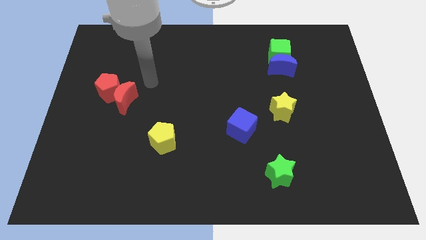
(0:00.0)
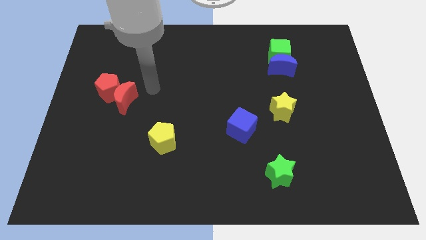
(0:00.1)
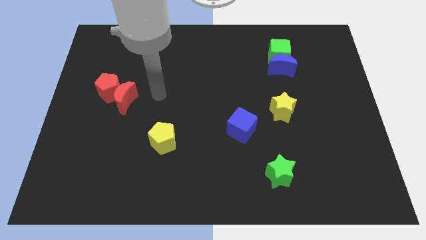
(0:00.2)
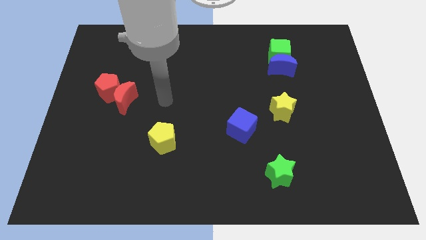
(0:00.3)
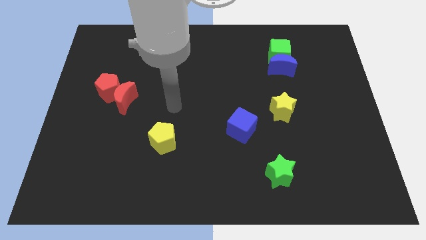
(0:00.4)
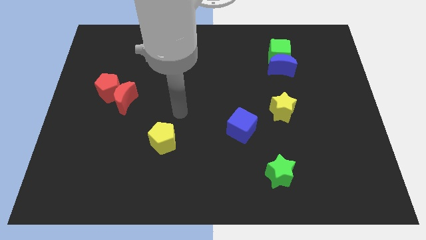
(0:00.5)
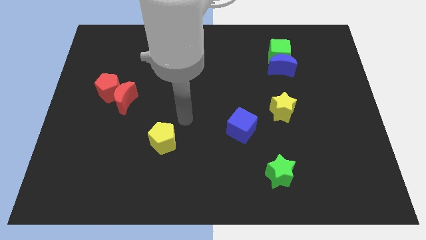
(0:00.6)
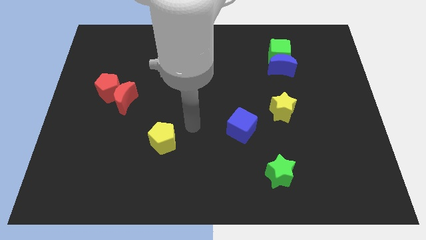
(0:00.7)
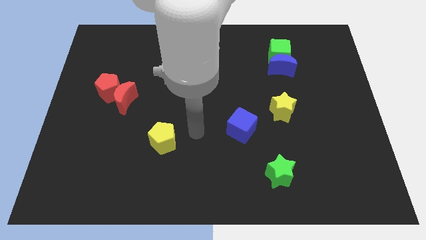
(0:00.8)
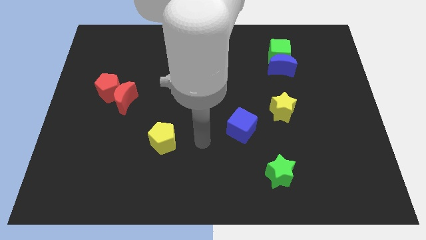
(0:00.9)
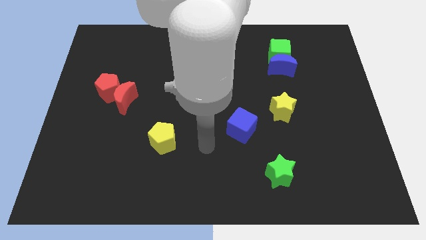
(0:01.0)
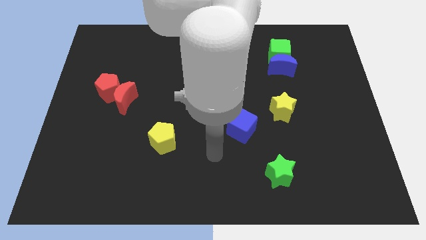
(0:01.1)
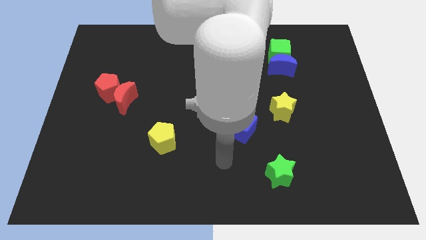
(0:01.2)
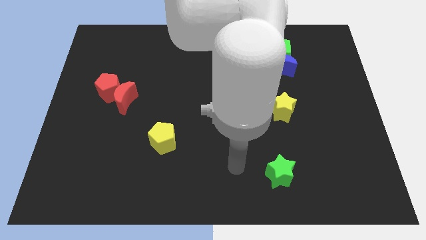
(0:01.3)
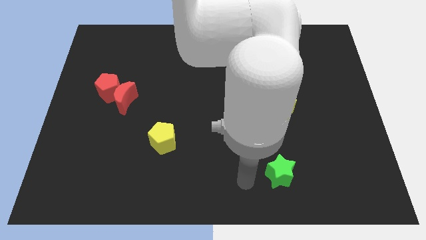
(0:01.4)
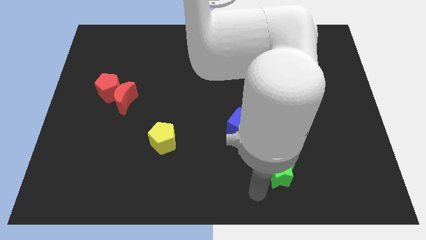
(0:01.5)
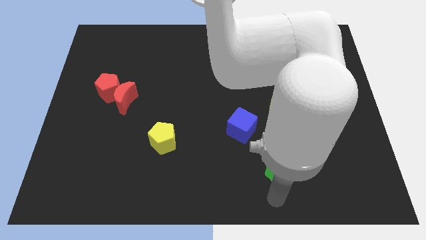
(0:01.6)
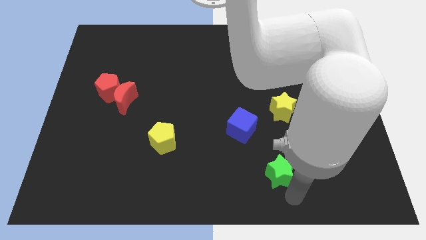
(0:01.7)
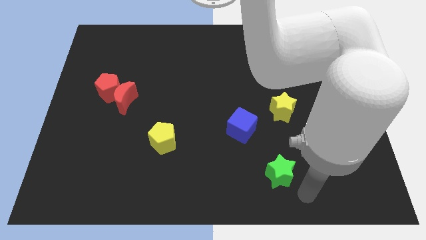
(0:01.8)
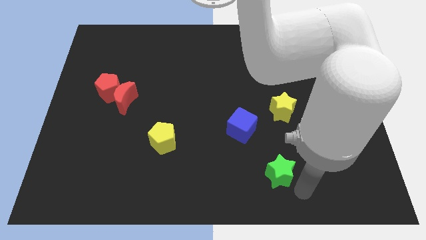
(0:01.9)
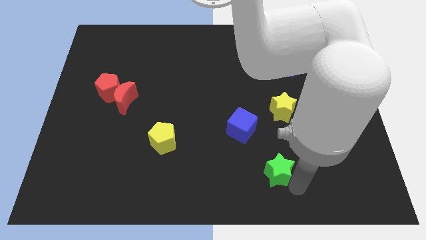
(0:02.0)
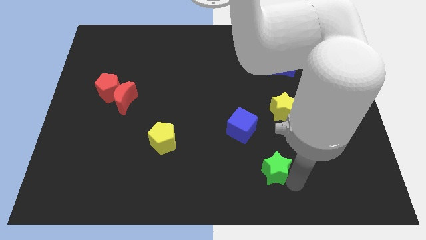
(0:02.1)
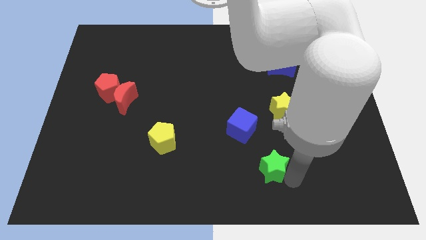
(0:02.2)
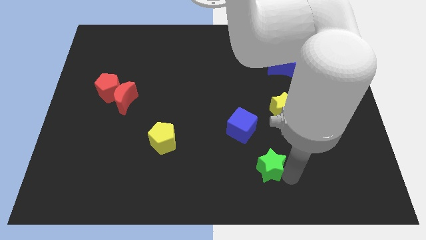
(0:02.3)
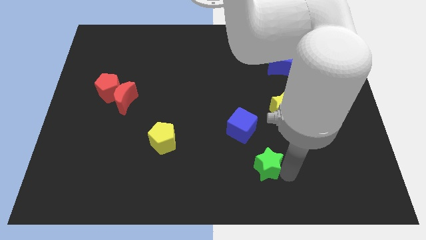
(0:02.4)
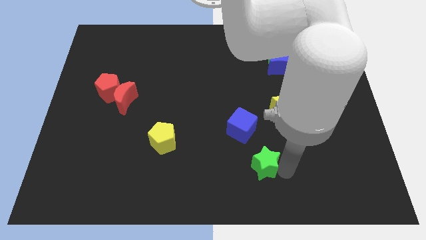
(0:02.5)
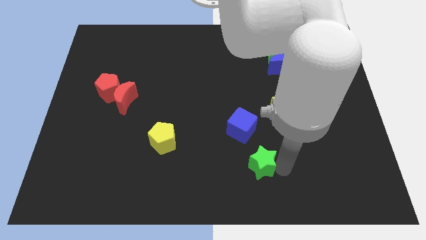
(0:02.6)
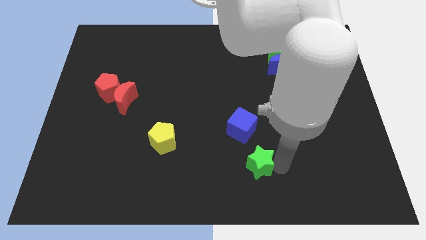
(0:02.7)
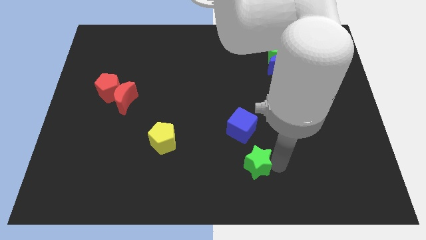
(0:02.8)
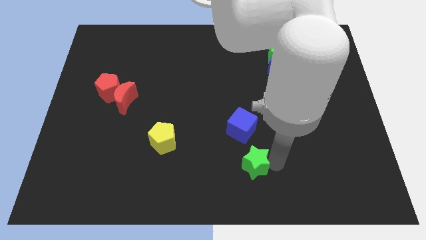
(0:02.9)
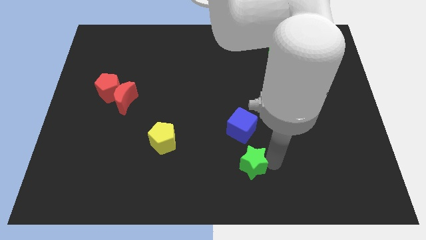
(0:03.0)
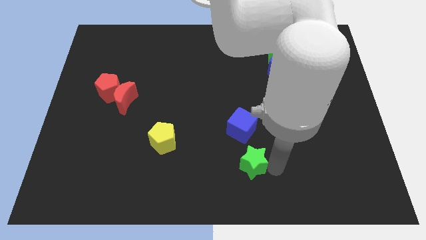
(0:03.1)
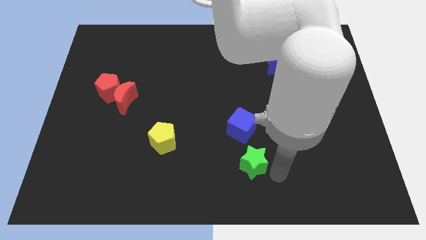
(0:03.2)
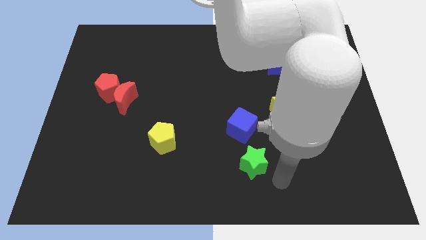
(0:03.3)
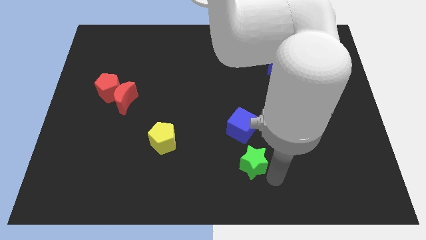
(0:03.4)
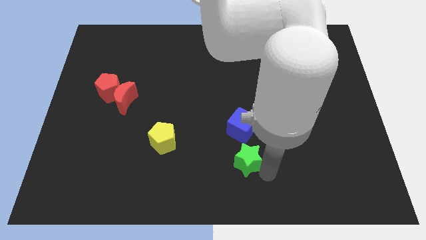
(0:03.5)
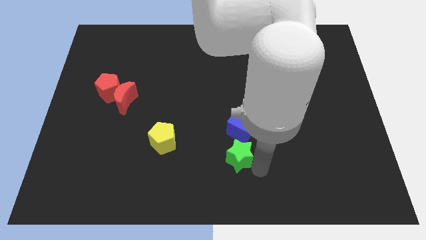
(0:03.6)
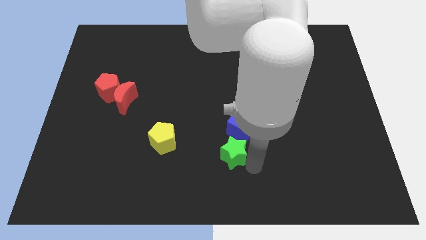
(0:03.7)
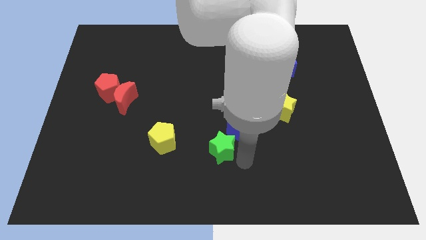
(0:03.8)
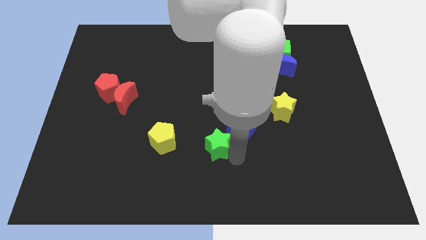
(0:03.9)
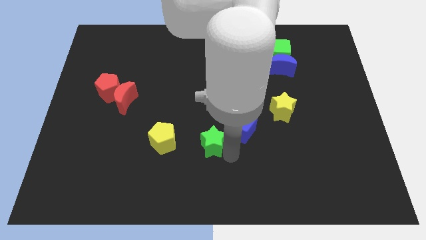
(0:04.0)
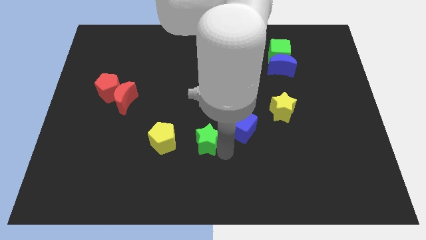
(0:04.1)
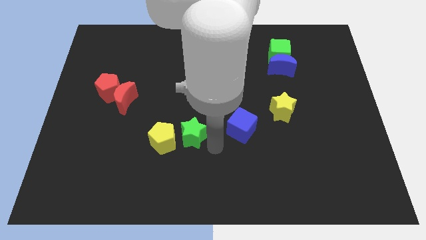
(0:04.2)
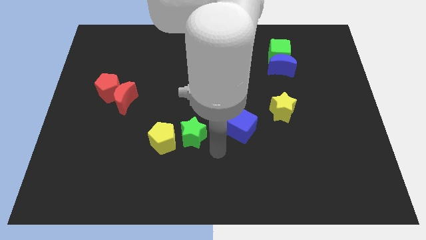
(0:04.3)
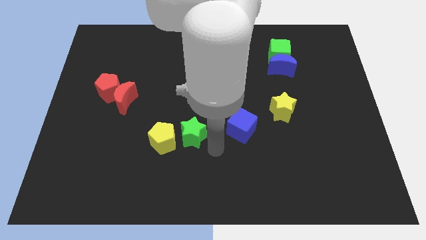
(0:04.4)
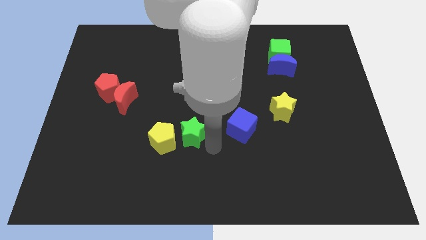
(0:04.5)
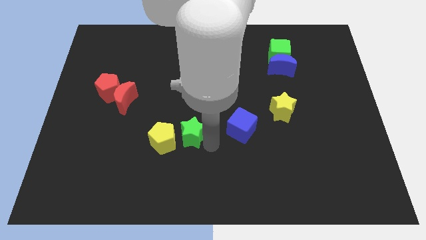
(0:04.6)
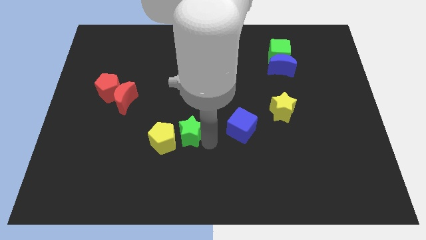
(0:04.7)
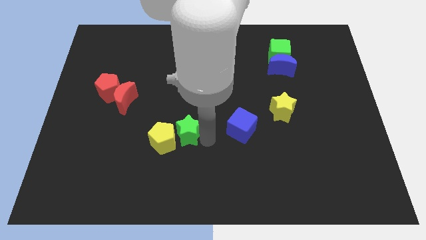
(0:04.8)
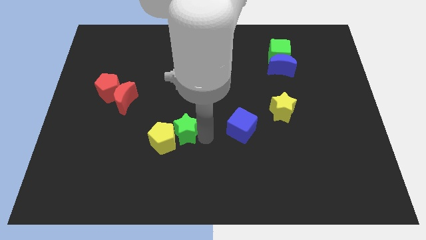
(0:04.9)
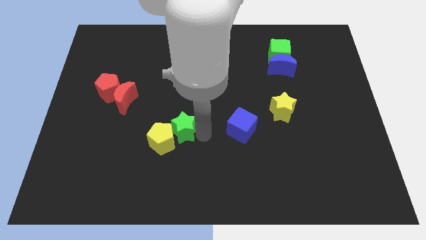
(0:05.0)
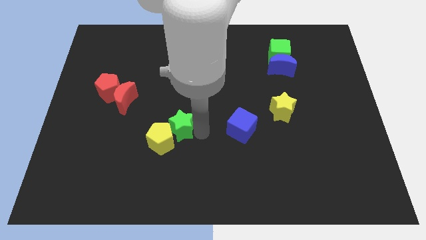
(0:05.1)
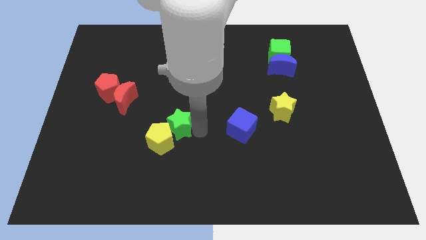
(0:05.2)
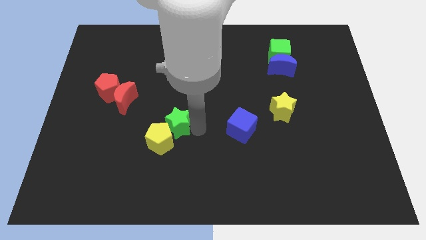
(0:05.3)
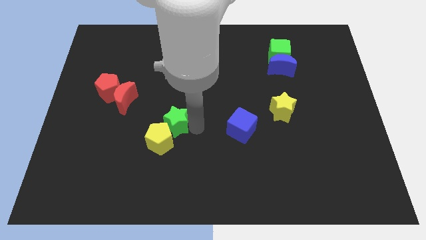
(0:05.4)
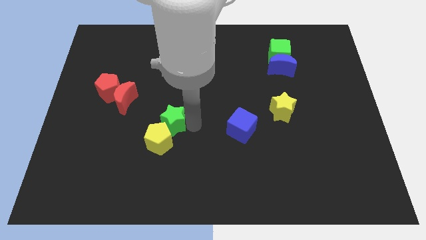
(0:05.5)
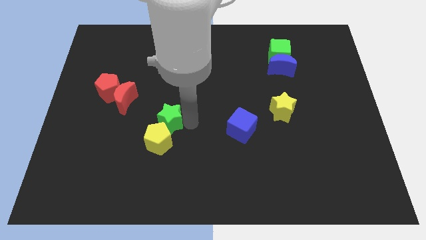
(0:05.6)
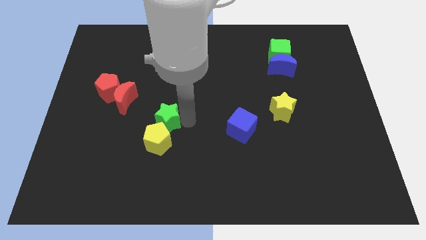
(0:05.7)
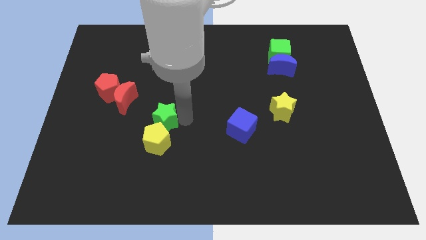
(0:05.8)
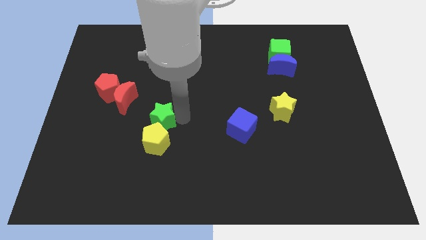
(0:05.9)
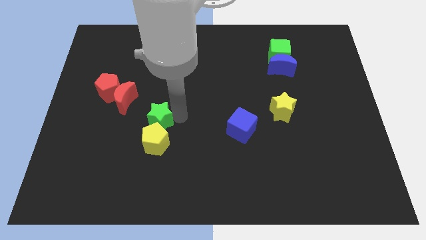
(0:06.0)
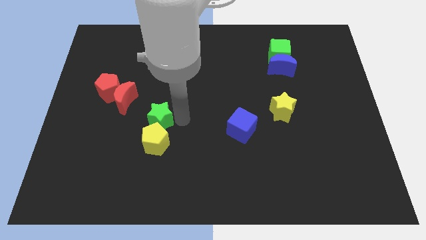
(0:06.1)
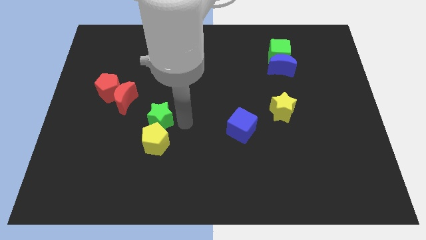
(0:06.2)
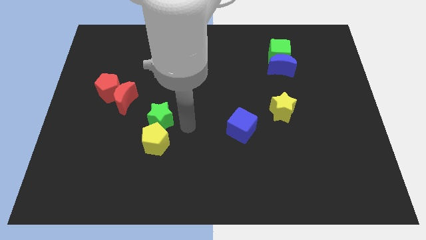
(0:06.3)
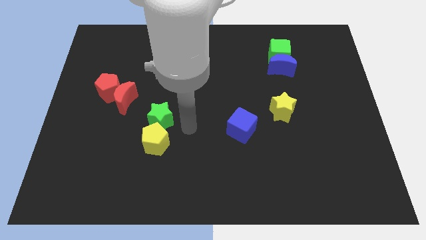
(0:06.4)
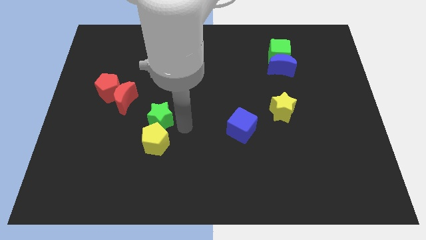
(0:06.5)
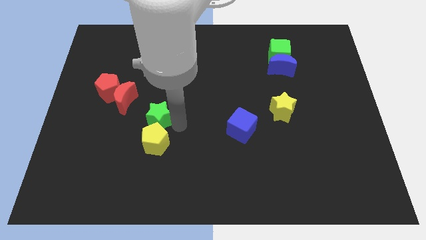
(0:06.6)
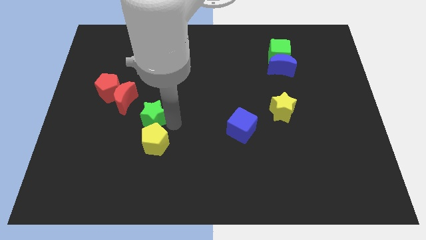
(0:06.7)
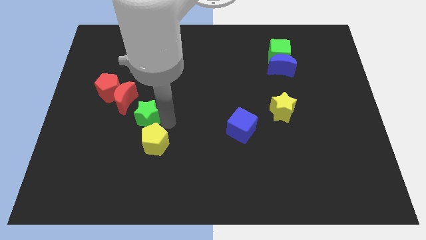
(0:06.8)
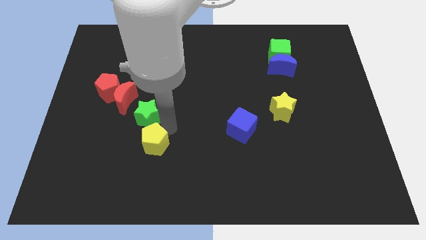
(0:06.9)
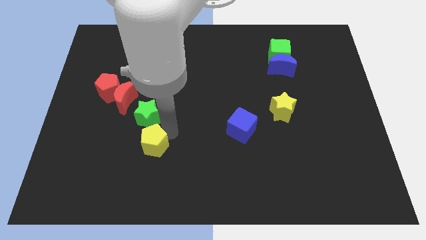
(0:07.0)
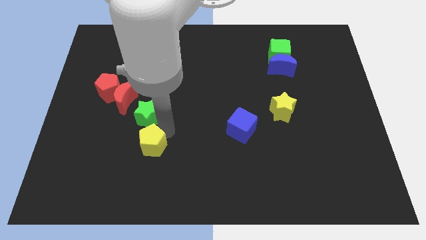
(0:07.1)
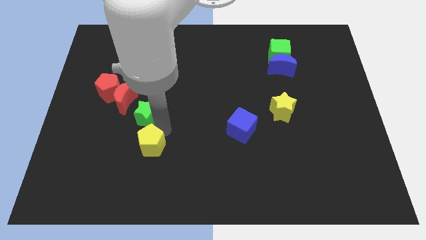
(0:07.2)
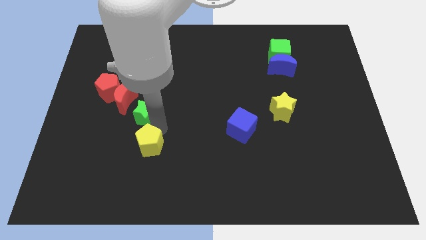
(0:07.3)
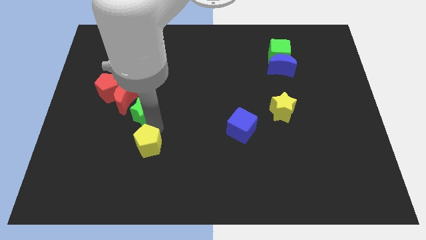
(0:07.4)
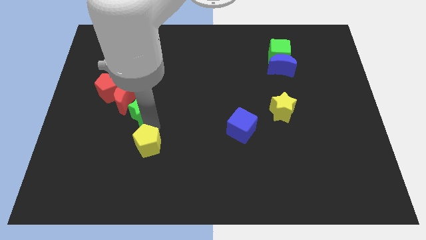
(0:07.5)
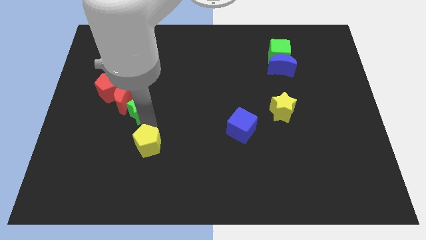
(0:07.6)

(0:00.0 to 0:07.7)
slide the green star close to the red moon
